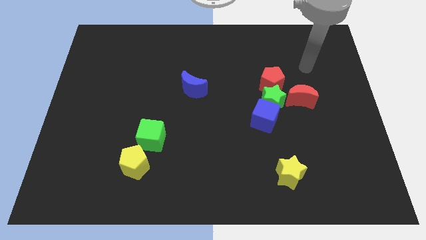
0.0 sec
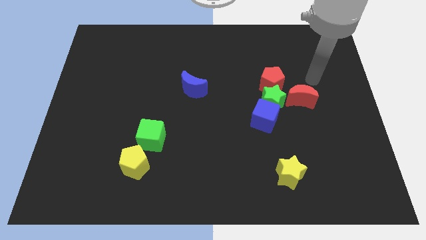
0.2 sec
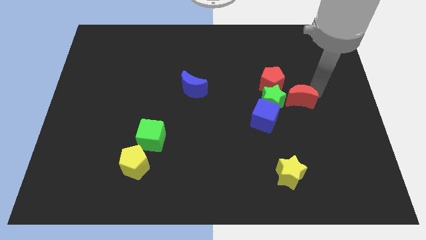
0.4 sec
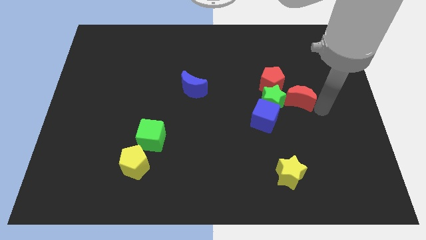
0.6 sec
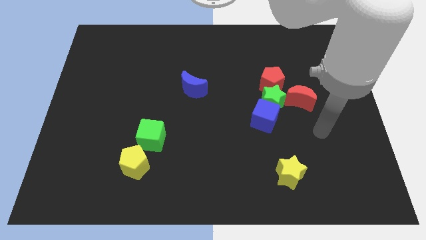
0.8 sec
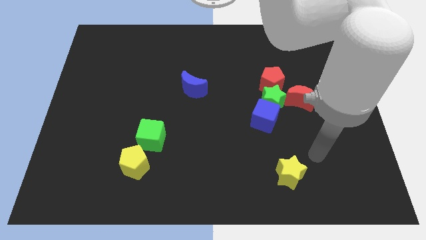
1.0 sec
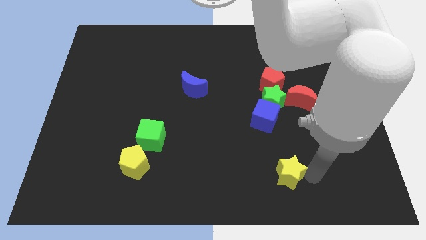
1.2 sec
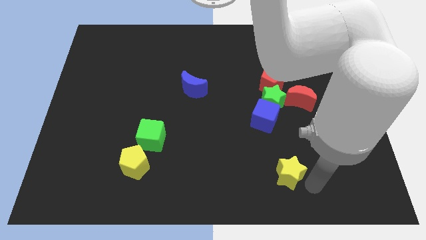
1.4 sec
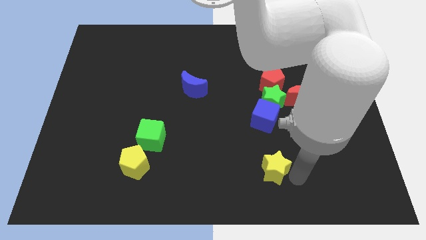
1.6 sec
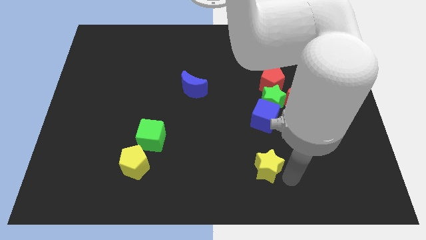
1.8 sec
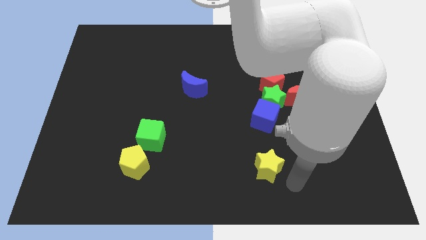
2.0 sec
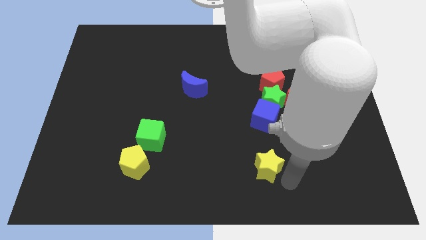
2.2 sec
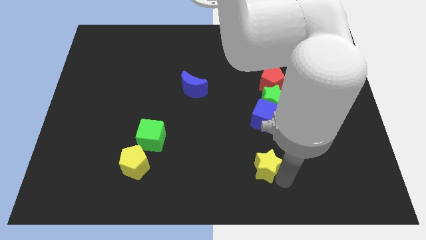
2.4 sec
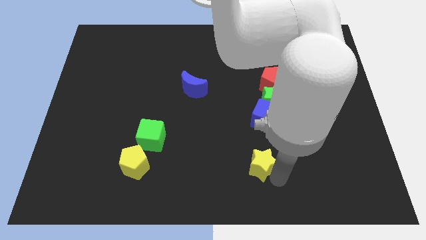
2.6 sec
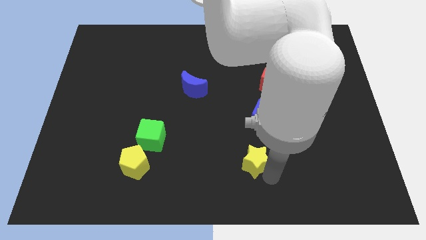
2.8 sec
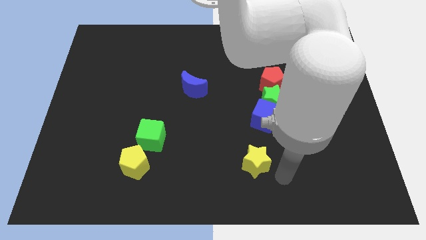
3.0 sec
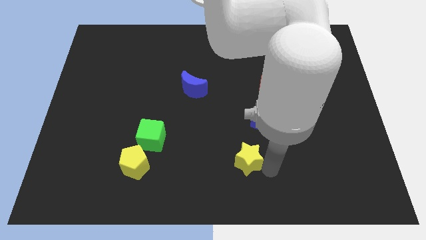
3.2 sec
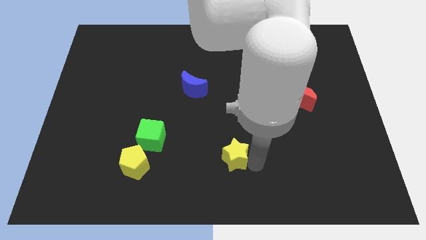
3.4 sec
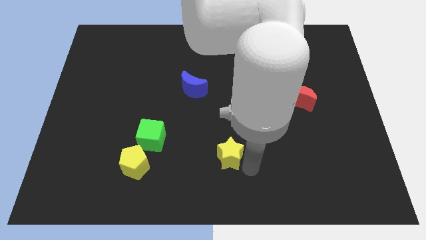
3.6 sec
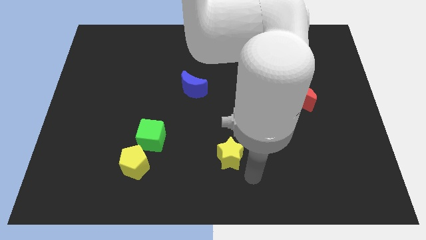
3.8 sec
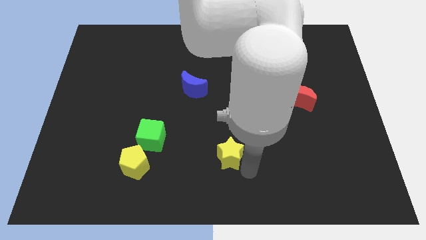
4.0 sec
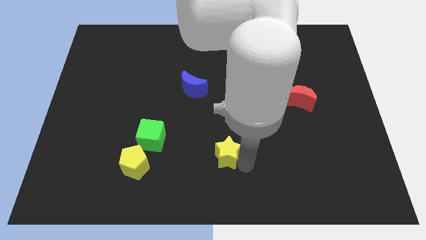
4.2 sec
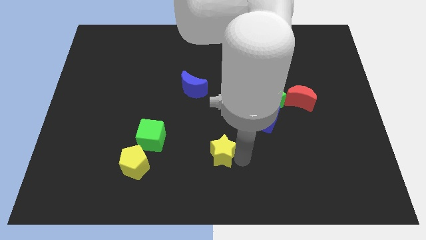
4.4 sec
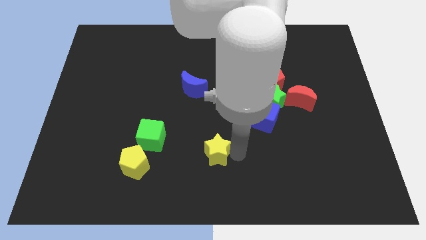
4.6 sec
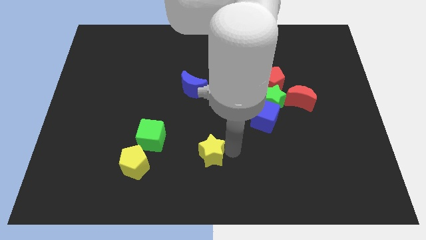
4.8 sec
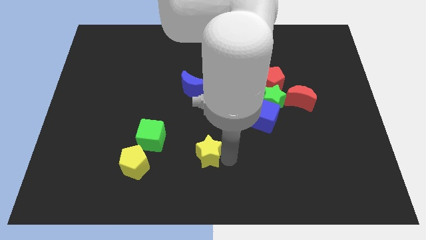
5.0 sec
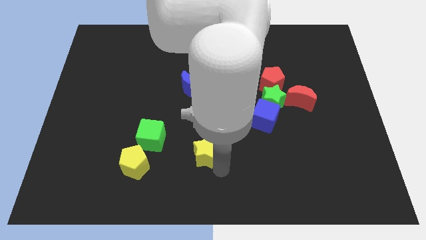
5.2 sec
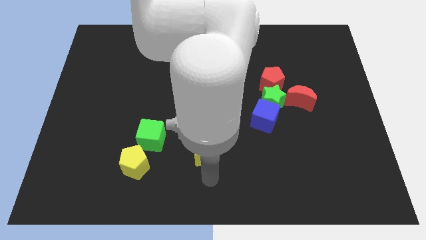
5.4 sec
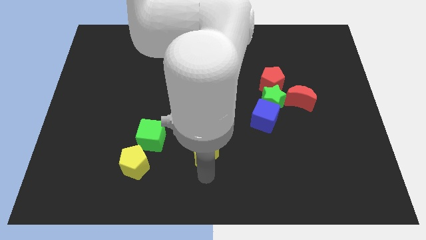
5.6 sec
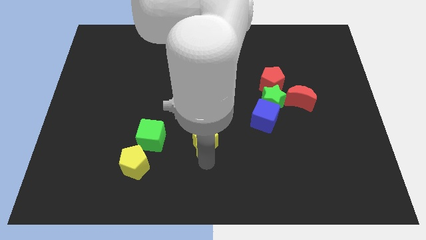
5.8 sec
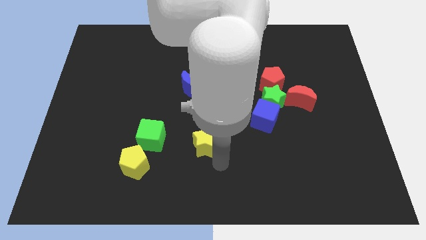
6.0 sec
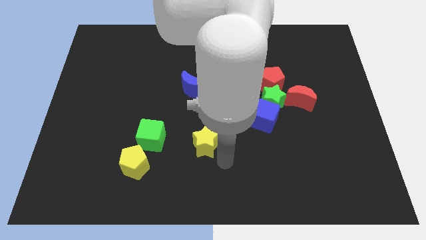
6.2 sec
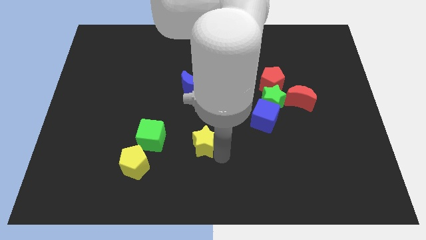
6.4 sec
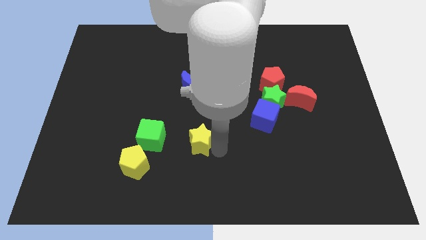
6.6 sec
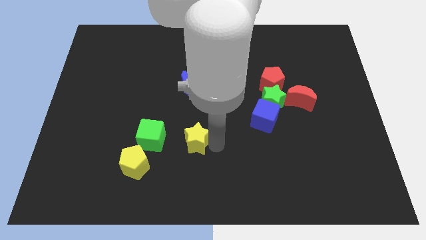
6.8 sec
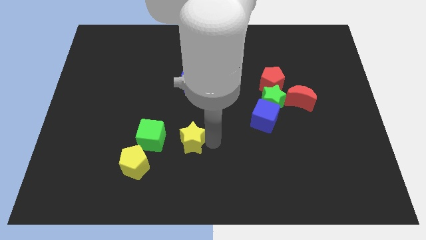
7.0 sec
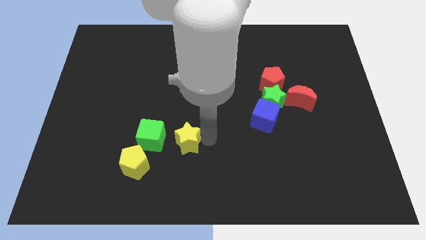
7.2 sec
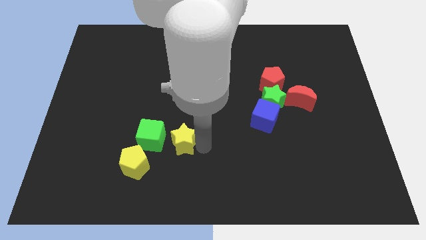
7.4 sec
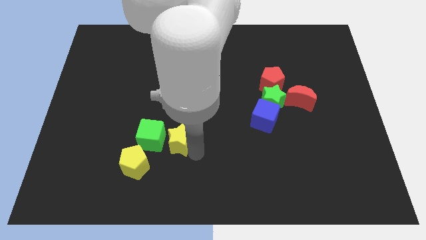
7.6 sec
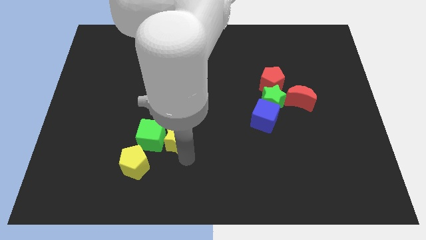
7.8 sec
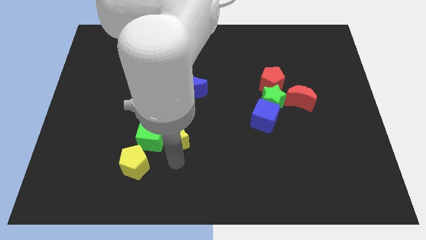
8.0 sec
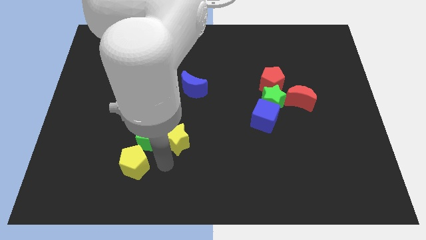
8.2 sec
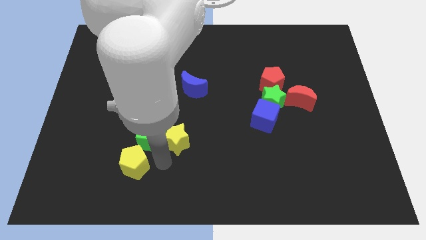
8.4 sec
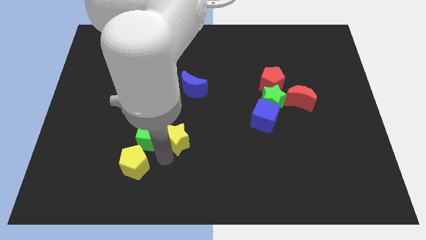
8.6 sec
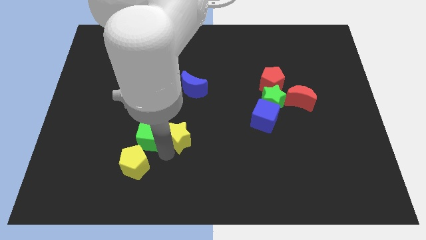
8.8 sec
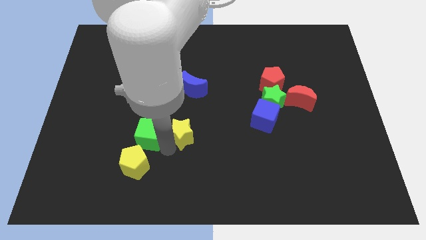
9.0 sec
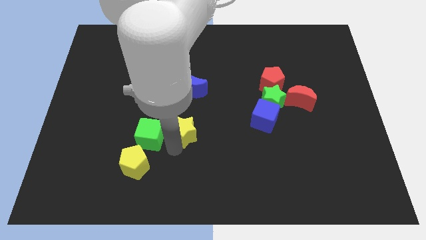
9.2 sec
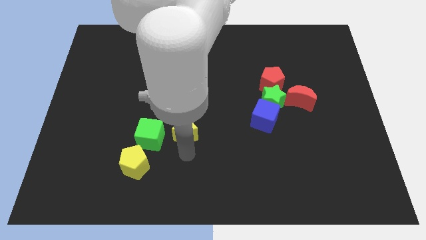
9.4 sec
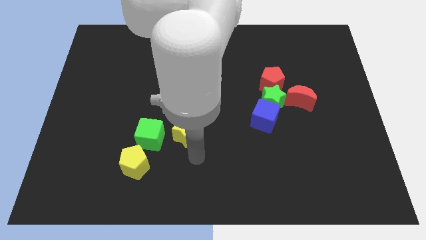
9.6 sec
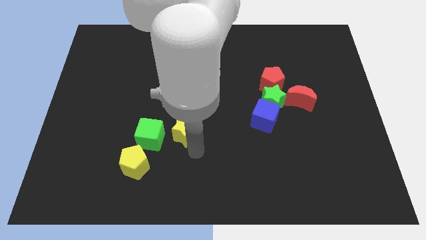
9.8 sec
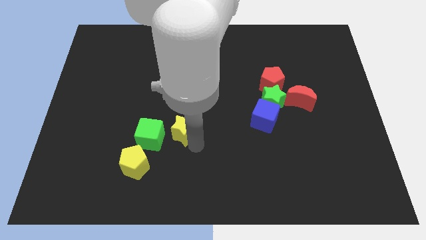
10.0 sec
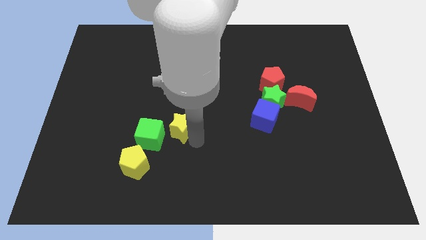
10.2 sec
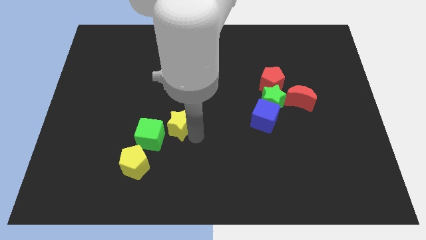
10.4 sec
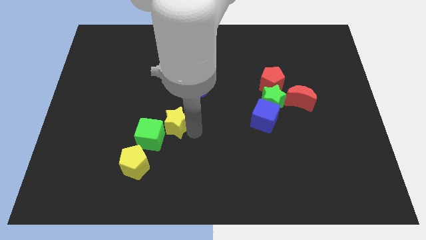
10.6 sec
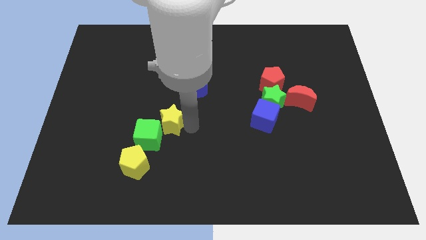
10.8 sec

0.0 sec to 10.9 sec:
put the yellow star to the bottom left of the blue moon

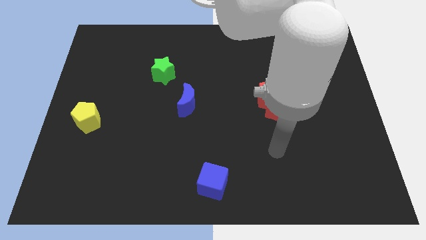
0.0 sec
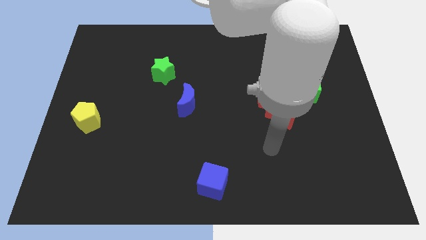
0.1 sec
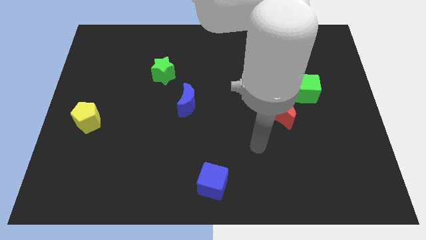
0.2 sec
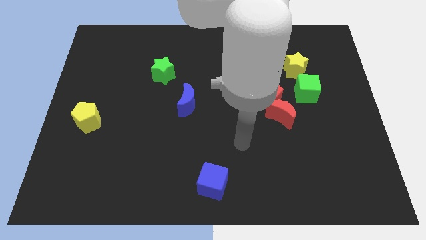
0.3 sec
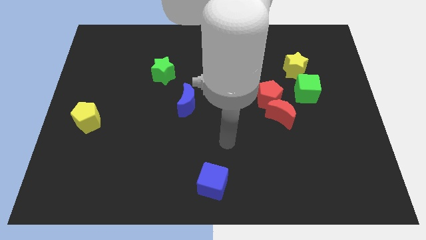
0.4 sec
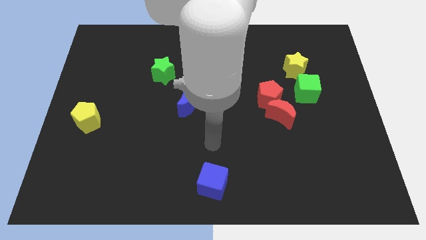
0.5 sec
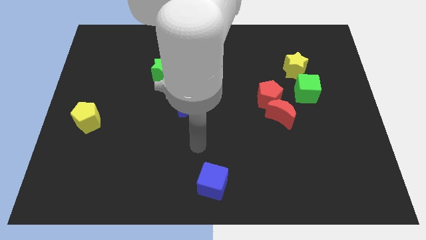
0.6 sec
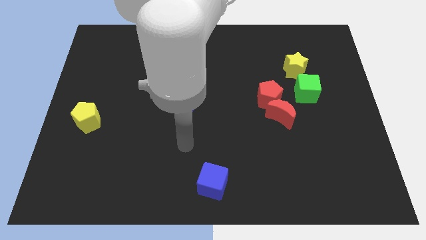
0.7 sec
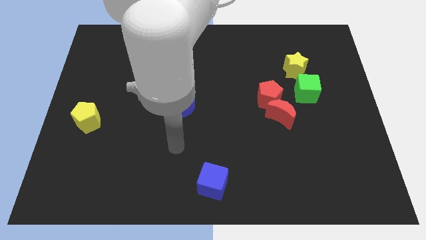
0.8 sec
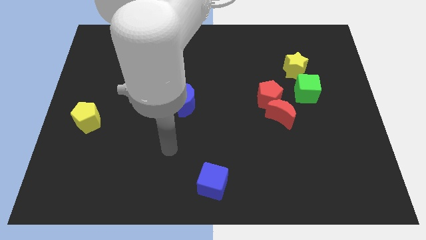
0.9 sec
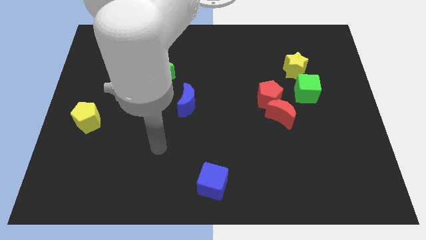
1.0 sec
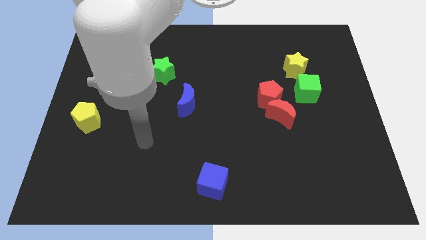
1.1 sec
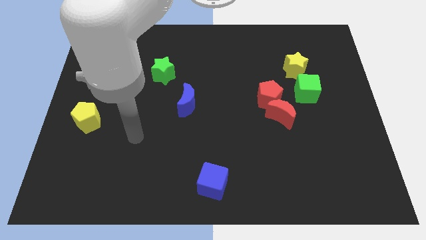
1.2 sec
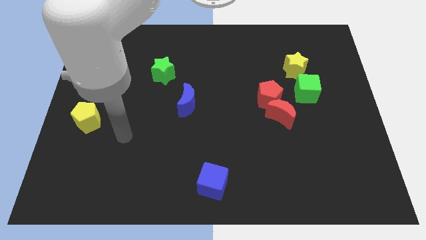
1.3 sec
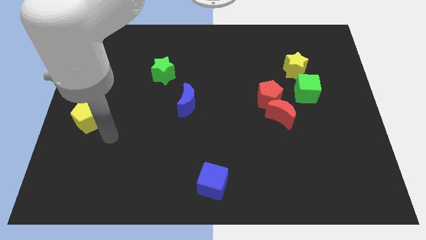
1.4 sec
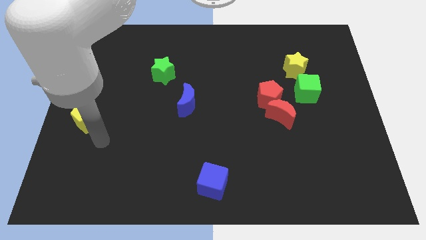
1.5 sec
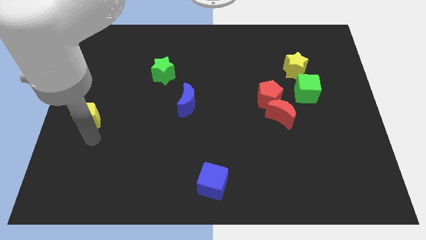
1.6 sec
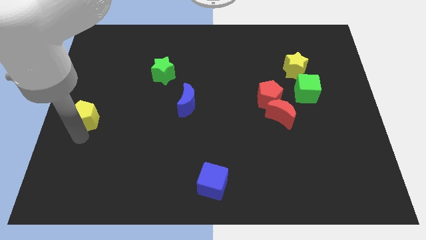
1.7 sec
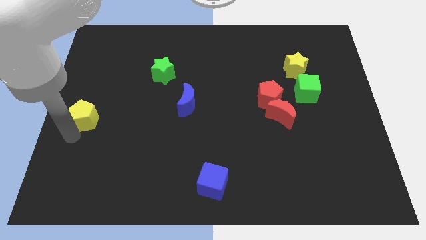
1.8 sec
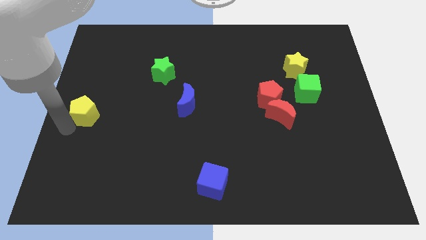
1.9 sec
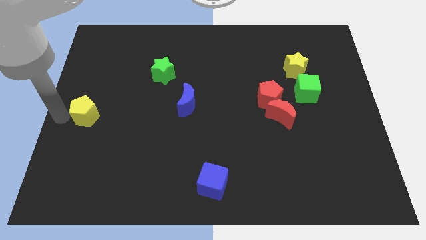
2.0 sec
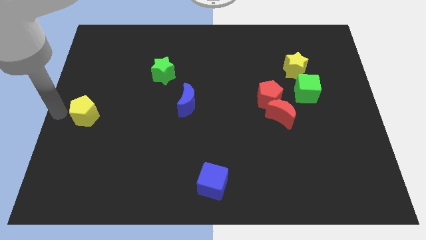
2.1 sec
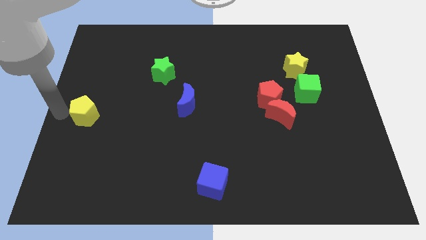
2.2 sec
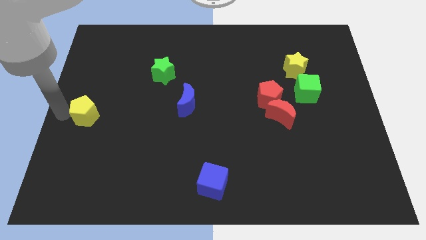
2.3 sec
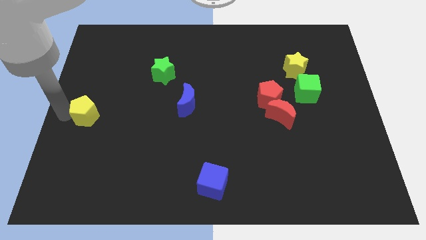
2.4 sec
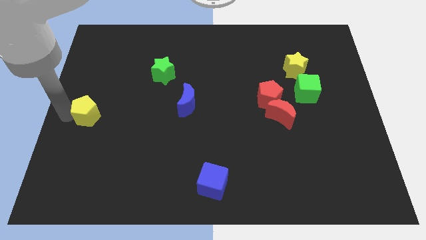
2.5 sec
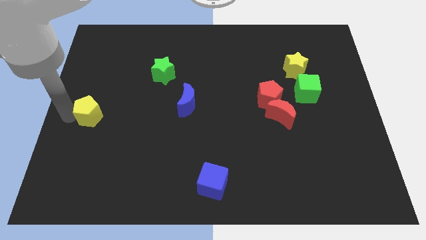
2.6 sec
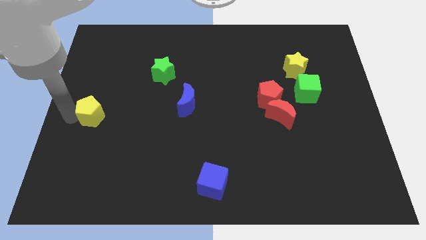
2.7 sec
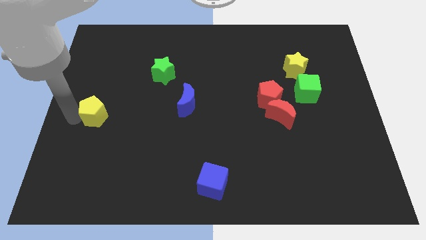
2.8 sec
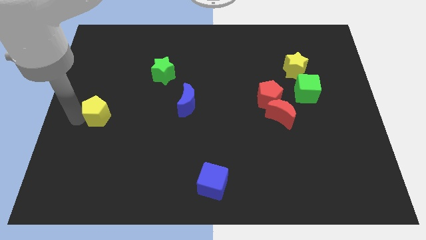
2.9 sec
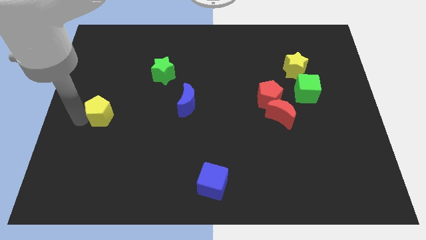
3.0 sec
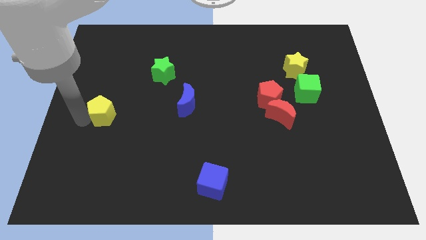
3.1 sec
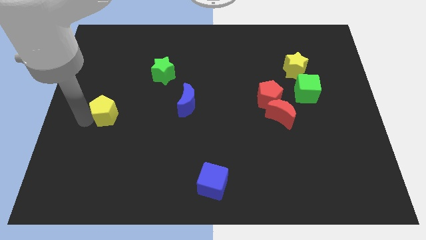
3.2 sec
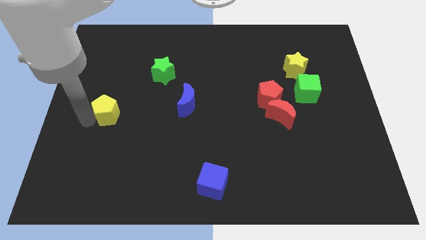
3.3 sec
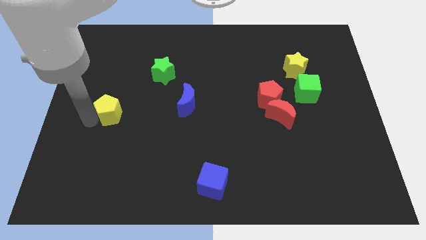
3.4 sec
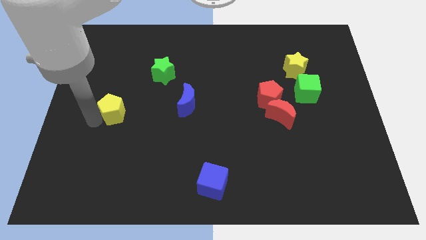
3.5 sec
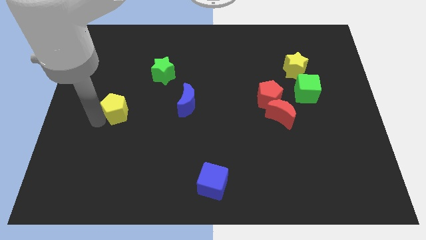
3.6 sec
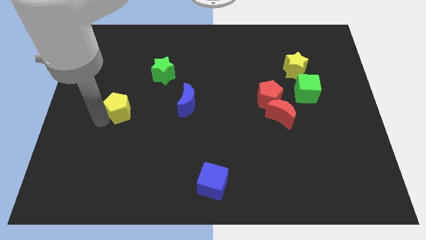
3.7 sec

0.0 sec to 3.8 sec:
push the yellow pentagon to the left side of the blue moon
